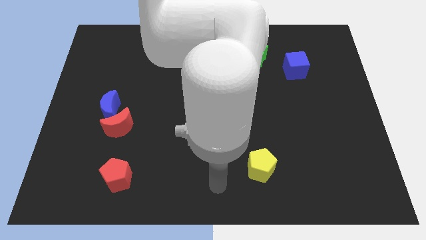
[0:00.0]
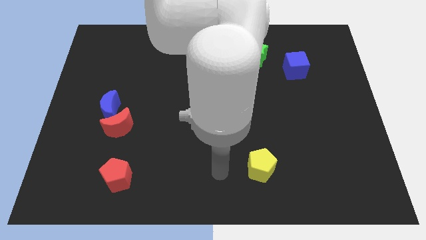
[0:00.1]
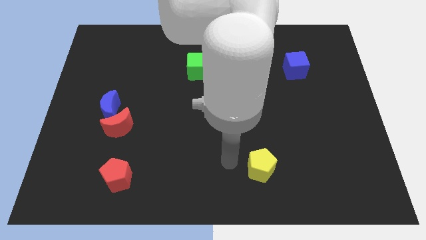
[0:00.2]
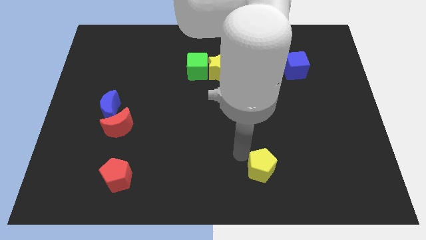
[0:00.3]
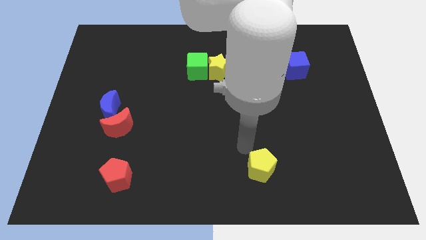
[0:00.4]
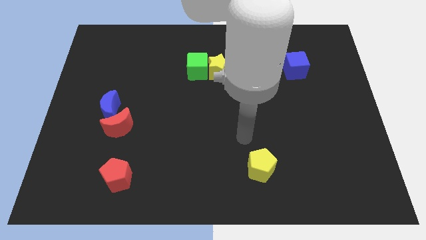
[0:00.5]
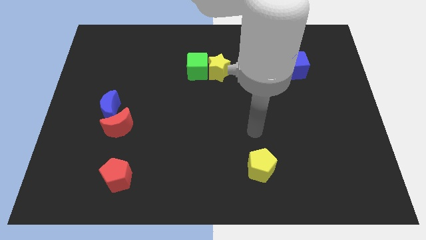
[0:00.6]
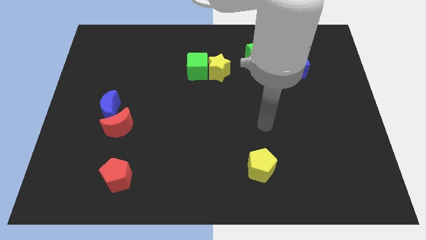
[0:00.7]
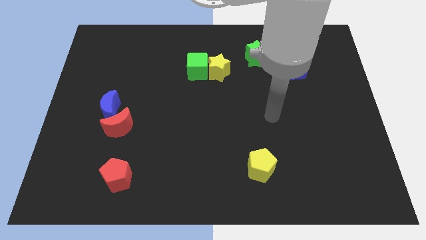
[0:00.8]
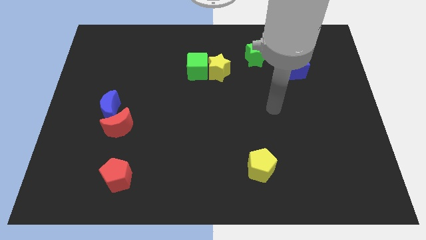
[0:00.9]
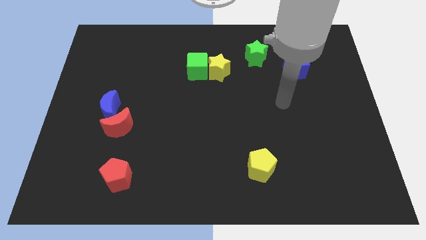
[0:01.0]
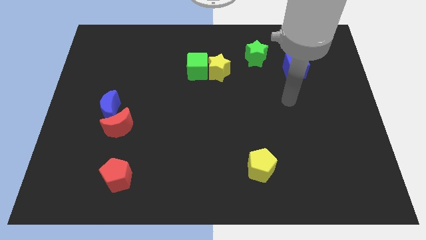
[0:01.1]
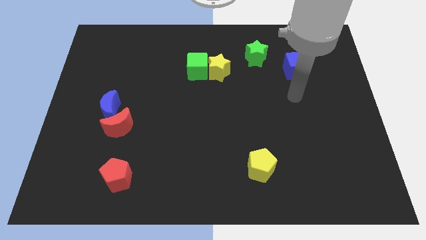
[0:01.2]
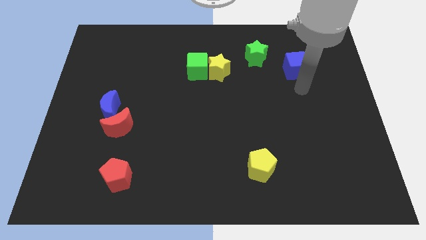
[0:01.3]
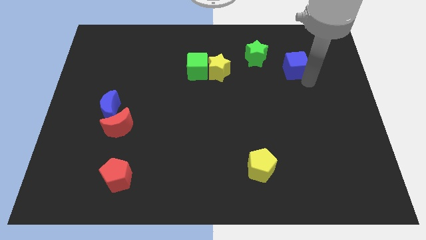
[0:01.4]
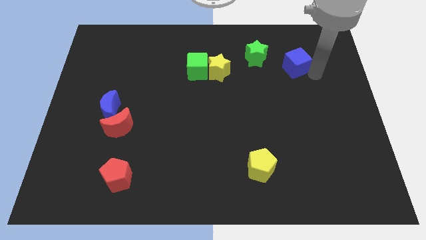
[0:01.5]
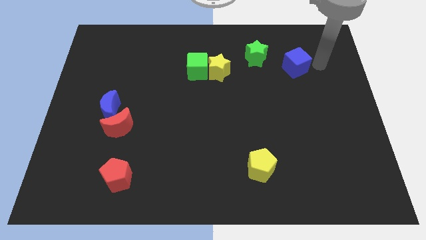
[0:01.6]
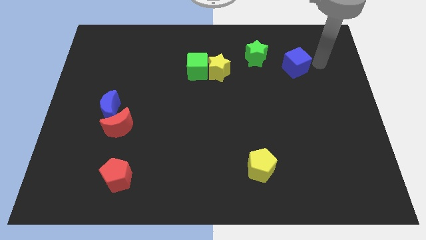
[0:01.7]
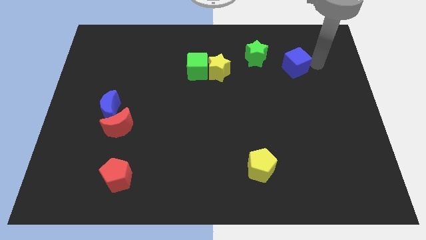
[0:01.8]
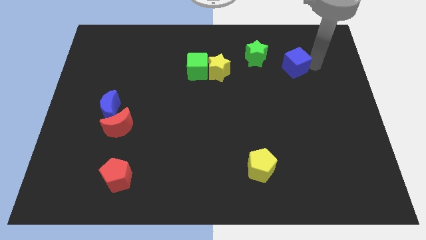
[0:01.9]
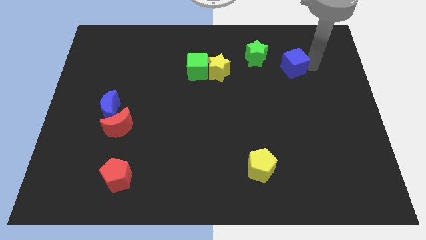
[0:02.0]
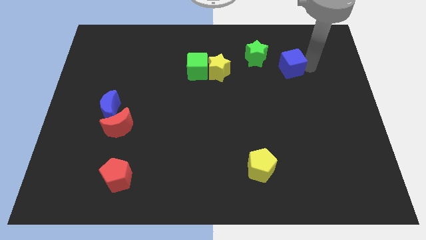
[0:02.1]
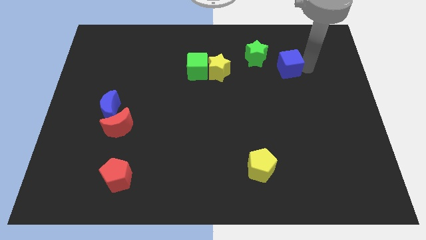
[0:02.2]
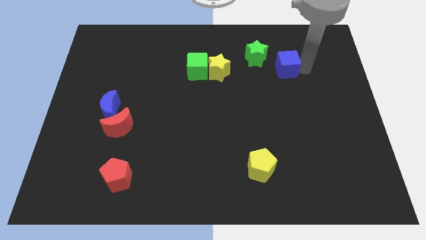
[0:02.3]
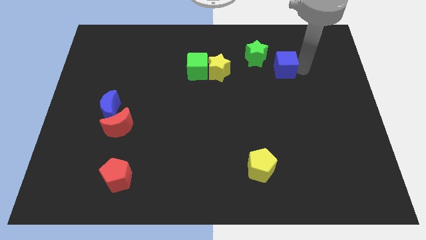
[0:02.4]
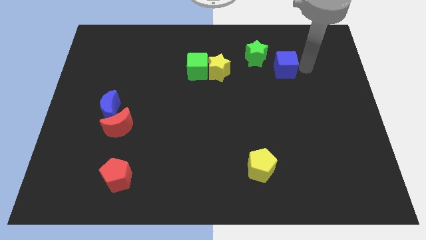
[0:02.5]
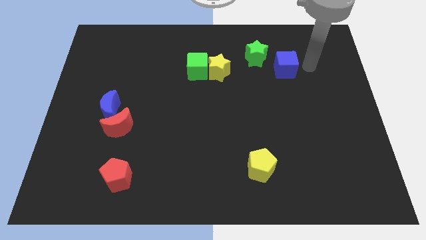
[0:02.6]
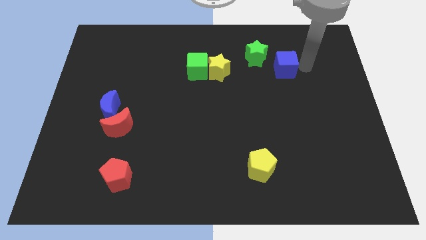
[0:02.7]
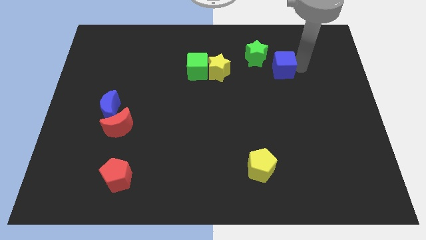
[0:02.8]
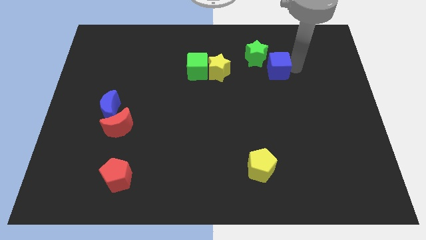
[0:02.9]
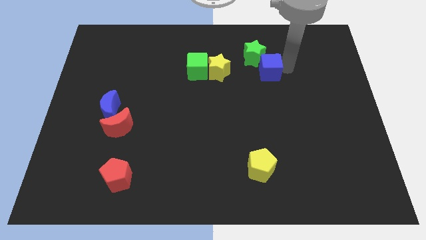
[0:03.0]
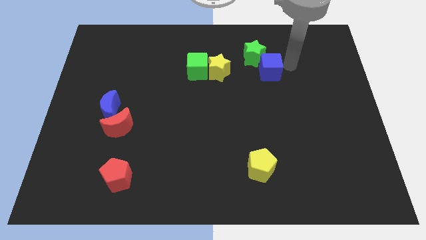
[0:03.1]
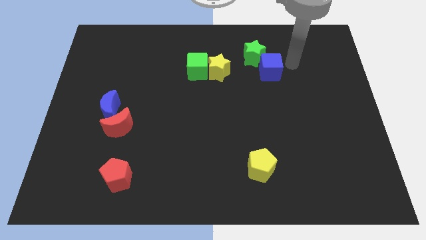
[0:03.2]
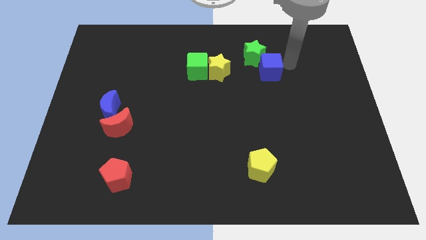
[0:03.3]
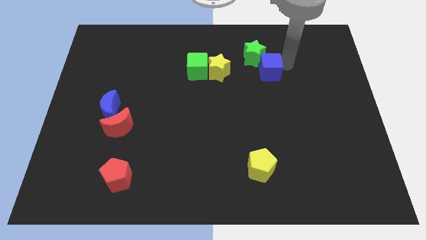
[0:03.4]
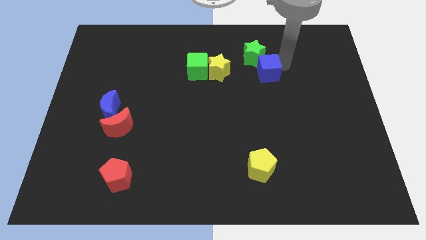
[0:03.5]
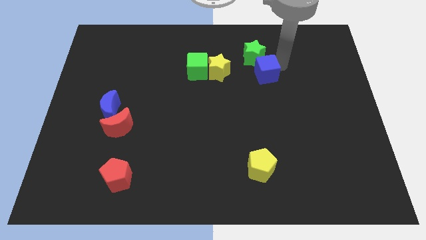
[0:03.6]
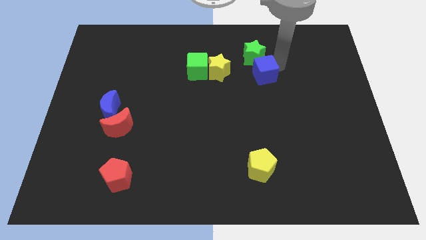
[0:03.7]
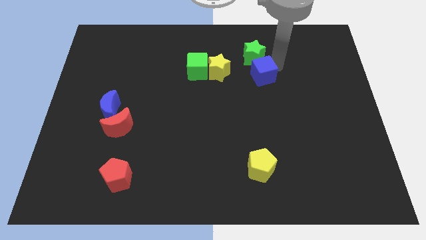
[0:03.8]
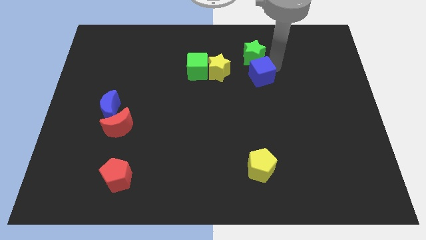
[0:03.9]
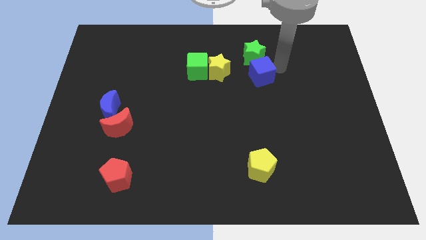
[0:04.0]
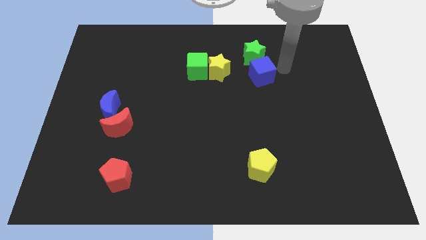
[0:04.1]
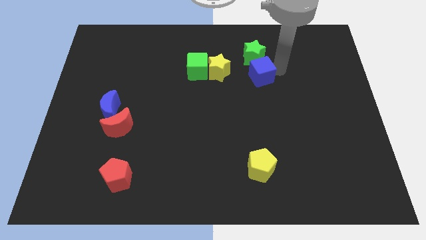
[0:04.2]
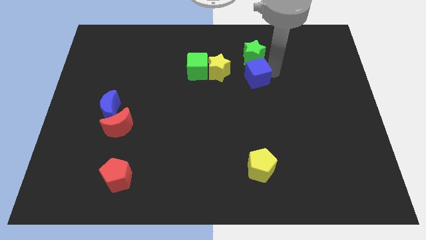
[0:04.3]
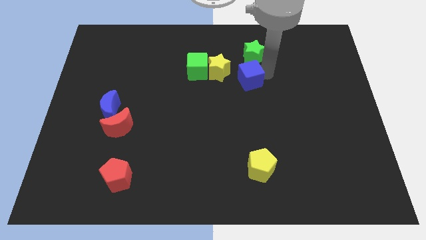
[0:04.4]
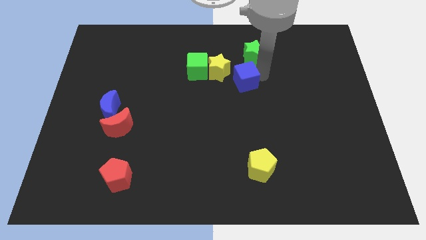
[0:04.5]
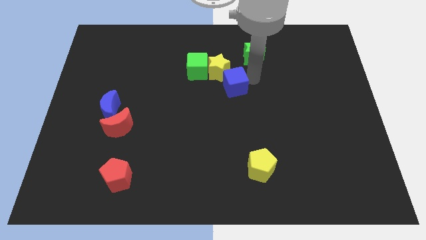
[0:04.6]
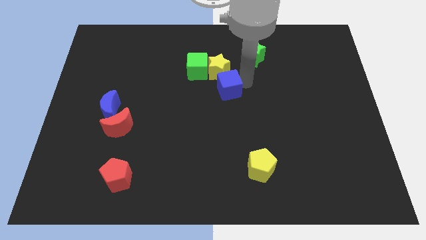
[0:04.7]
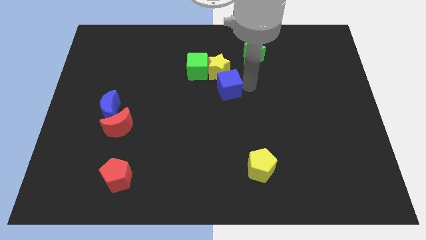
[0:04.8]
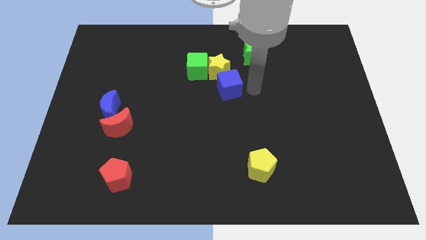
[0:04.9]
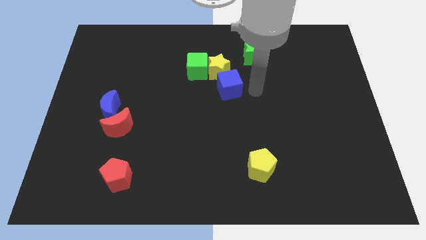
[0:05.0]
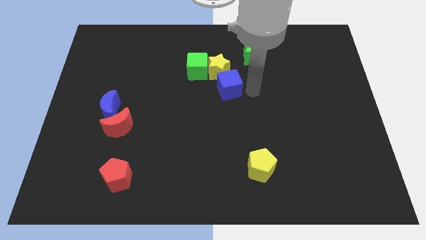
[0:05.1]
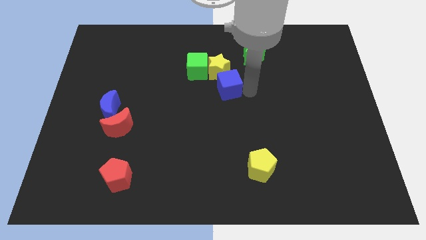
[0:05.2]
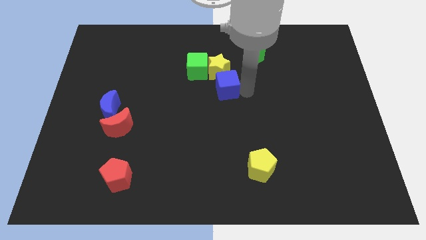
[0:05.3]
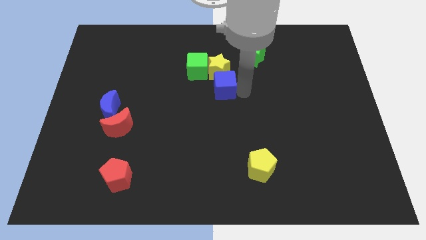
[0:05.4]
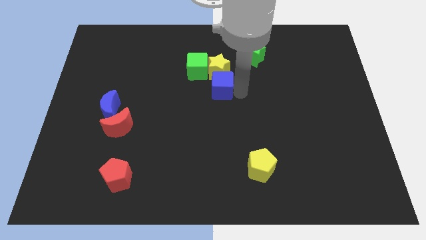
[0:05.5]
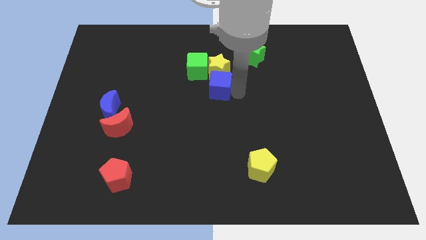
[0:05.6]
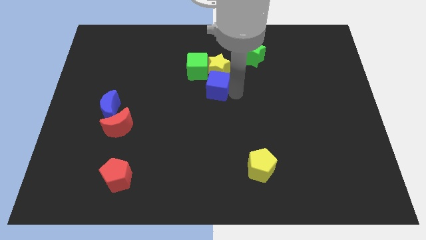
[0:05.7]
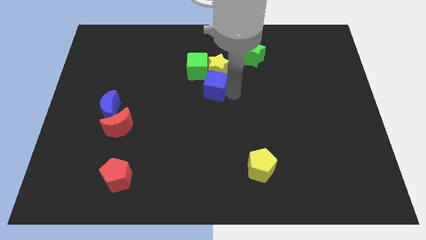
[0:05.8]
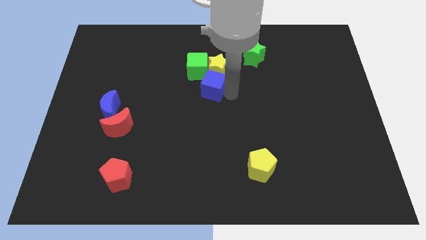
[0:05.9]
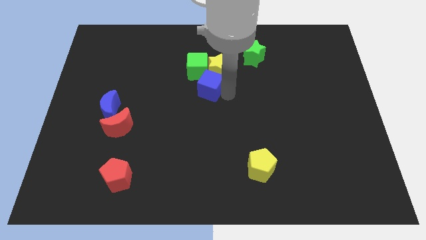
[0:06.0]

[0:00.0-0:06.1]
slide the blue cube to the left

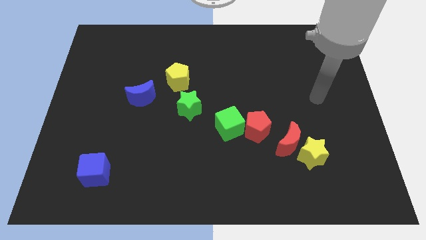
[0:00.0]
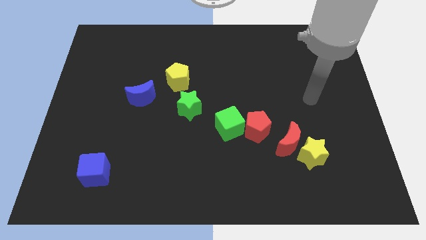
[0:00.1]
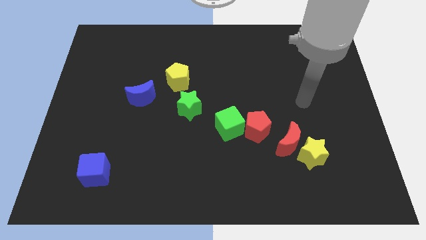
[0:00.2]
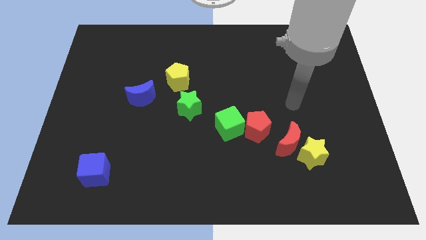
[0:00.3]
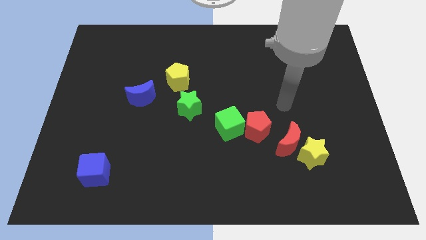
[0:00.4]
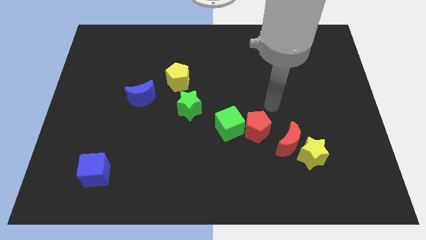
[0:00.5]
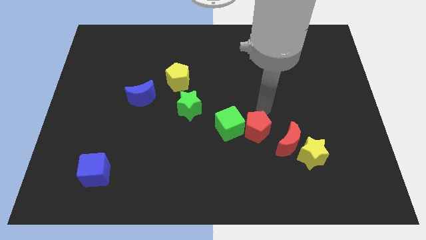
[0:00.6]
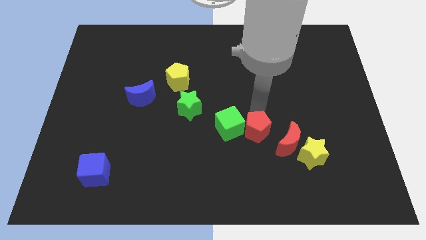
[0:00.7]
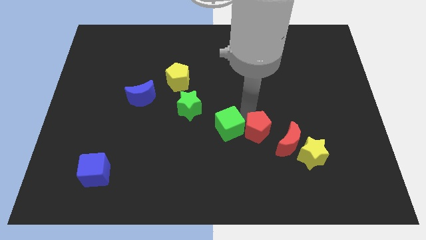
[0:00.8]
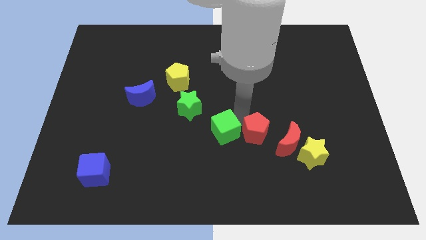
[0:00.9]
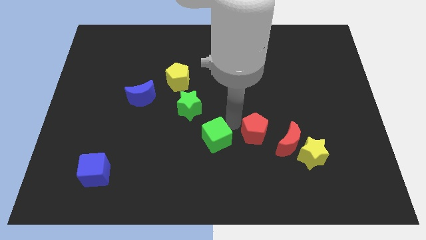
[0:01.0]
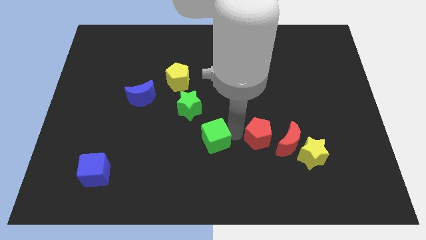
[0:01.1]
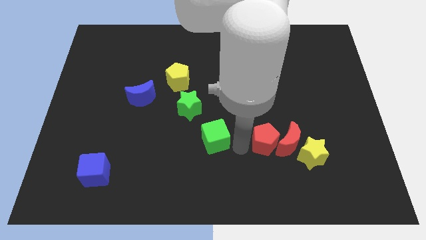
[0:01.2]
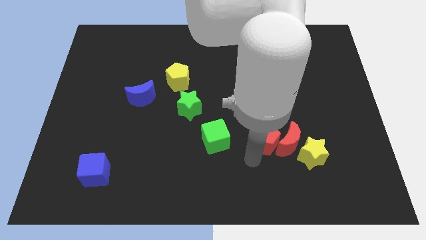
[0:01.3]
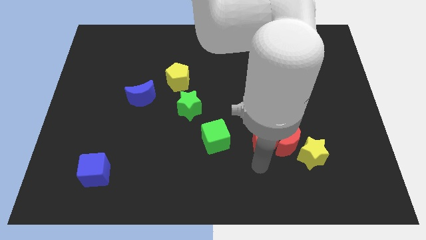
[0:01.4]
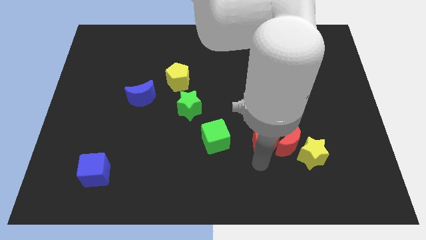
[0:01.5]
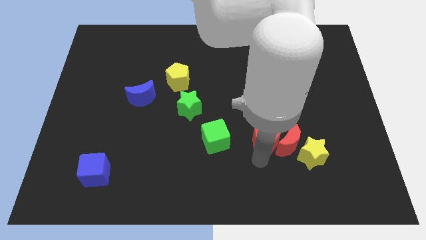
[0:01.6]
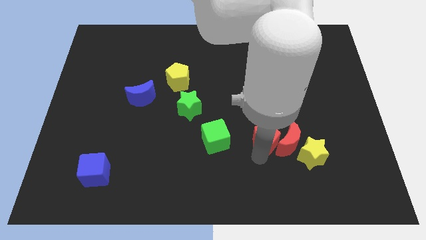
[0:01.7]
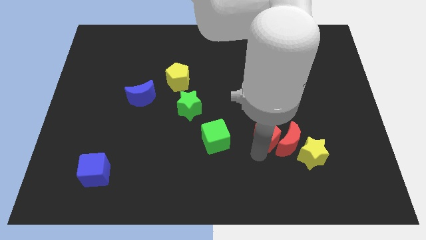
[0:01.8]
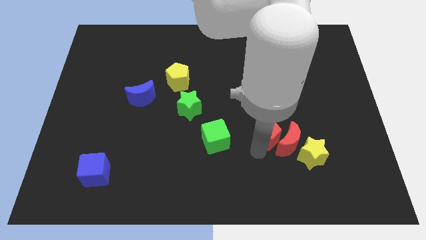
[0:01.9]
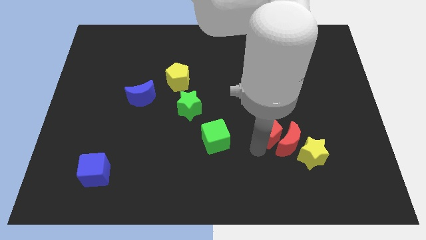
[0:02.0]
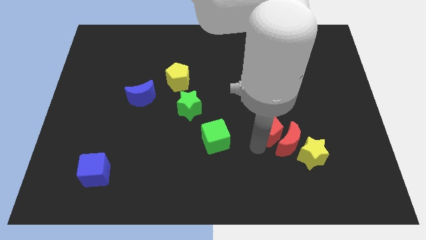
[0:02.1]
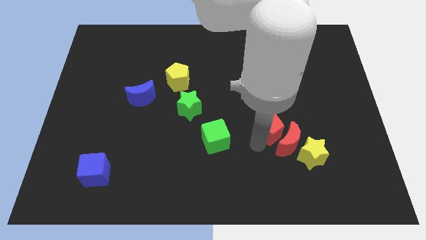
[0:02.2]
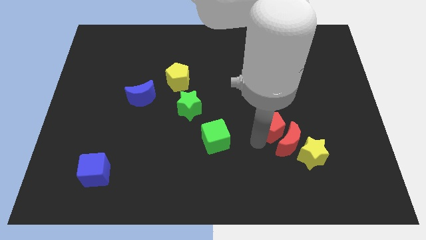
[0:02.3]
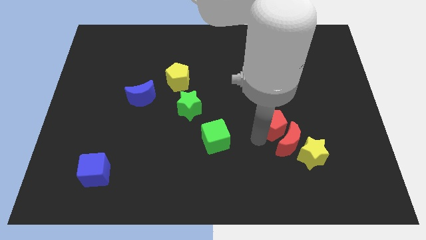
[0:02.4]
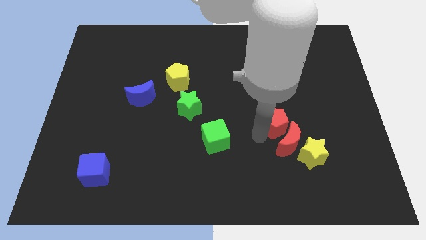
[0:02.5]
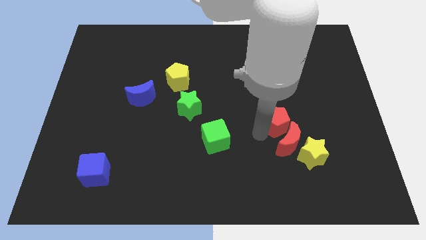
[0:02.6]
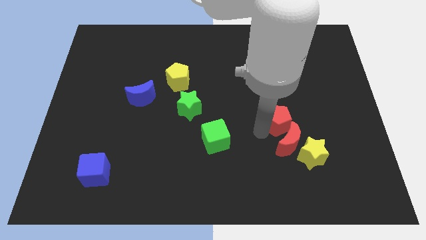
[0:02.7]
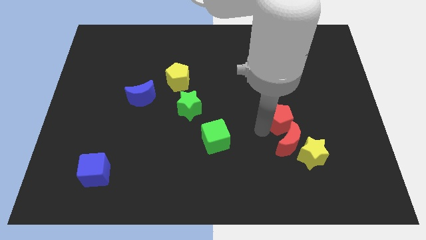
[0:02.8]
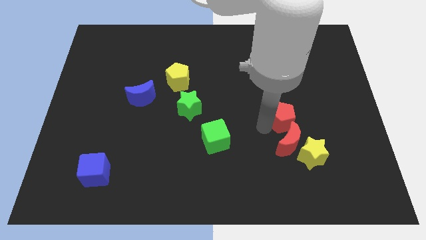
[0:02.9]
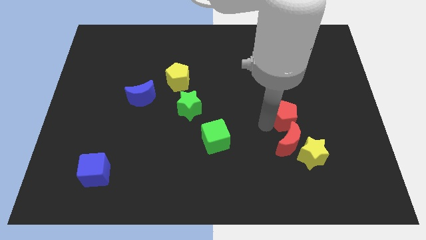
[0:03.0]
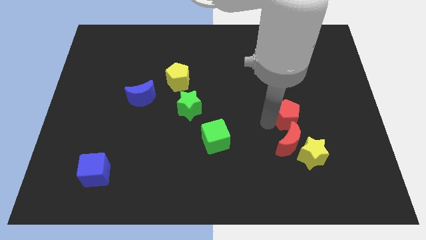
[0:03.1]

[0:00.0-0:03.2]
push the red pentagon upwards and right slightly
